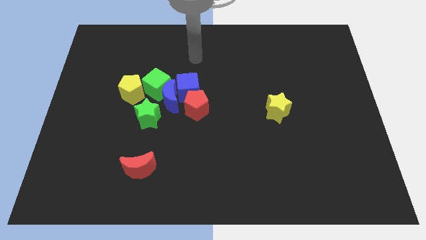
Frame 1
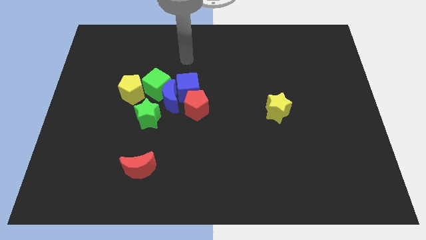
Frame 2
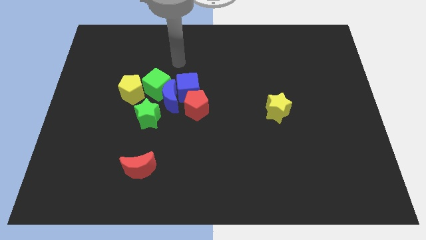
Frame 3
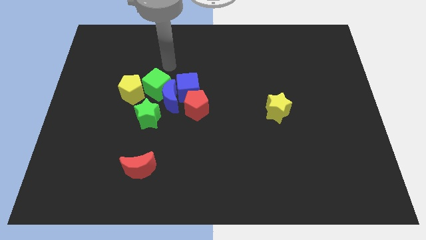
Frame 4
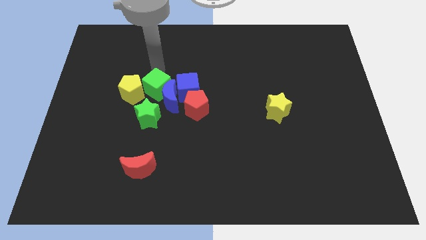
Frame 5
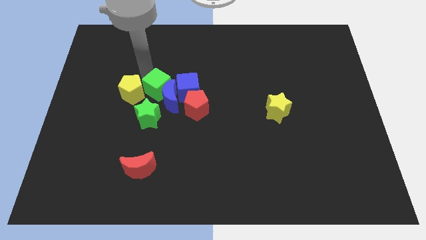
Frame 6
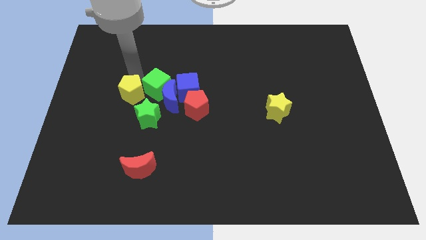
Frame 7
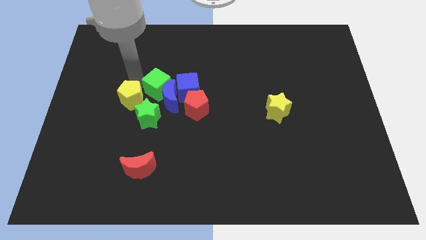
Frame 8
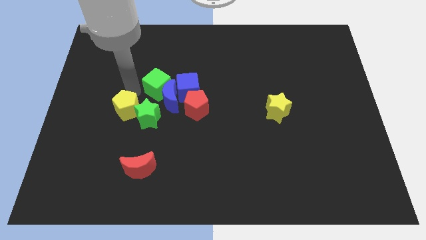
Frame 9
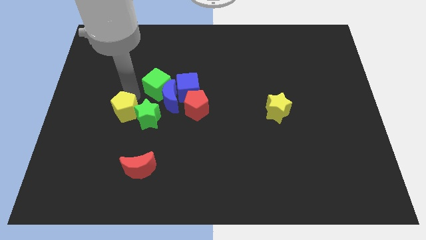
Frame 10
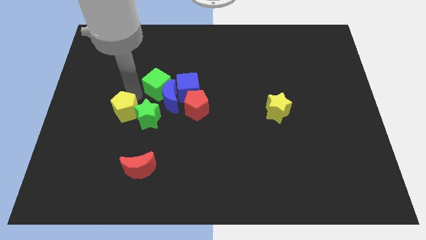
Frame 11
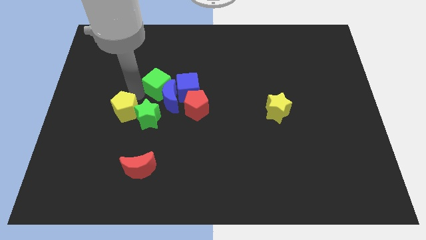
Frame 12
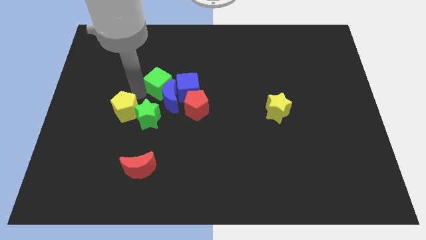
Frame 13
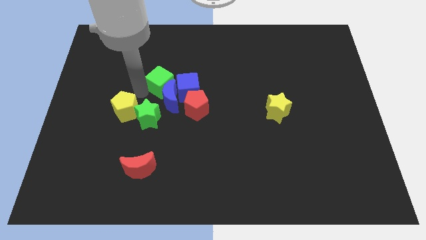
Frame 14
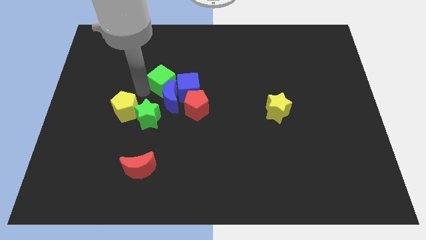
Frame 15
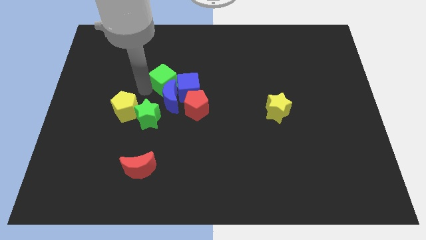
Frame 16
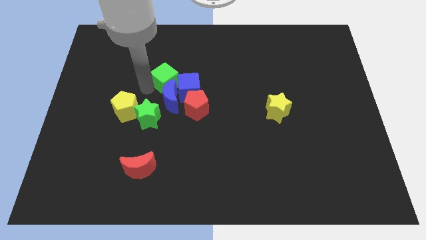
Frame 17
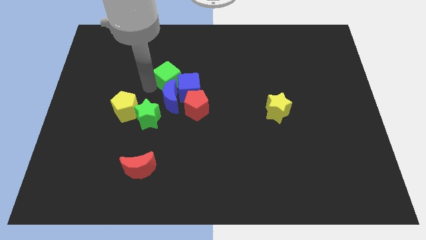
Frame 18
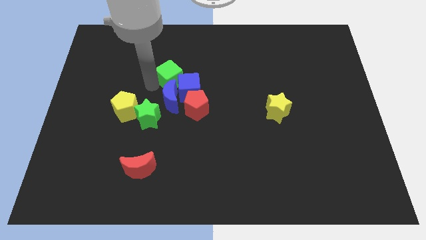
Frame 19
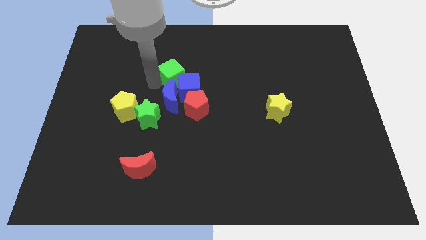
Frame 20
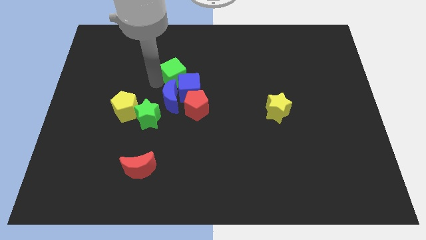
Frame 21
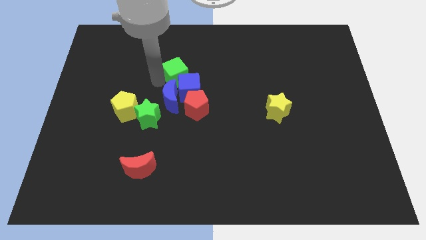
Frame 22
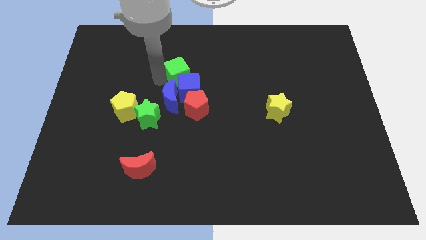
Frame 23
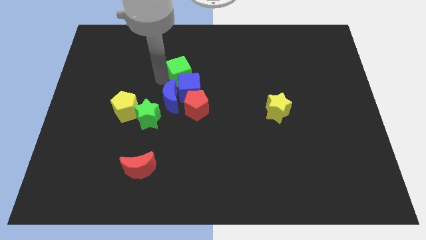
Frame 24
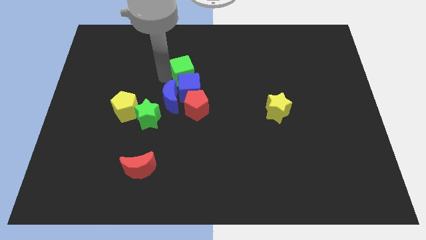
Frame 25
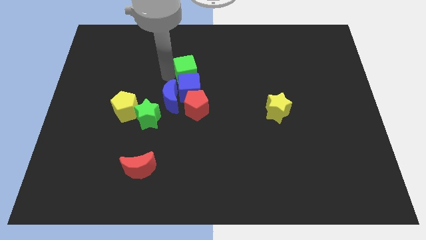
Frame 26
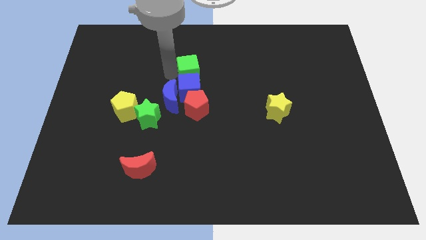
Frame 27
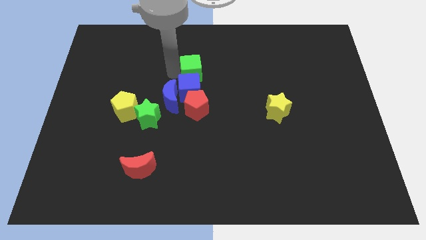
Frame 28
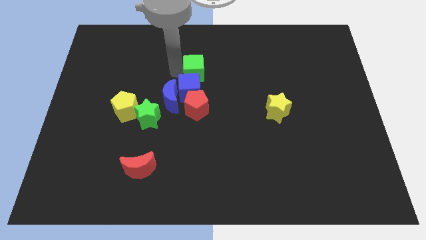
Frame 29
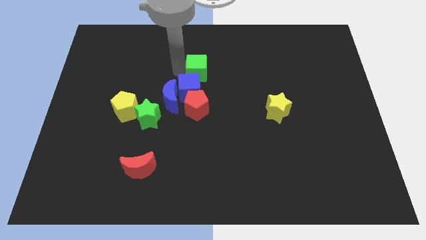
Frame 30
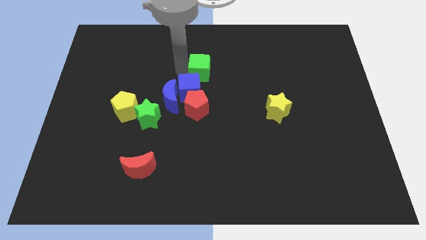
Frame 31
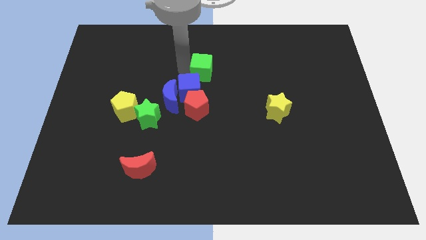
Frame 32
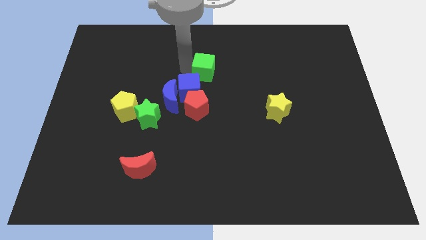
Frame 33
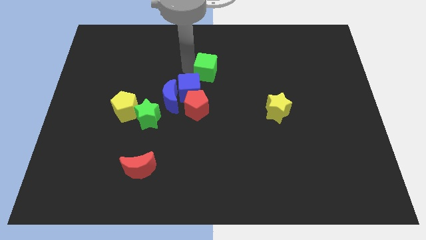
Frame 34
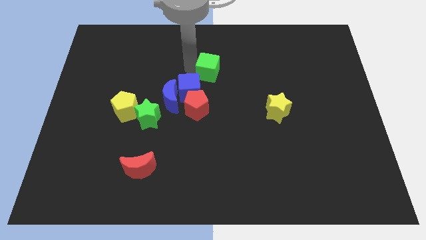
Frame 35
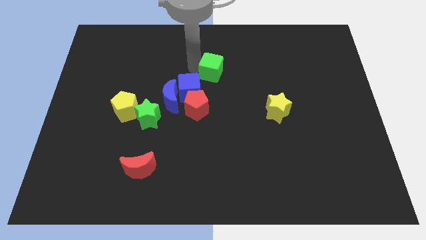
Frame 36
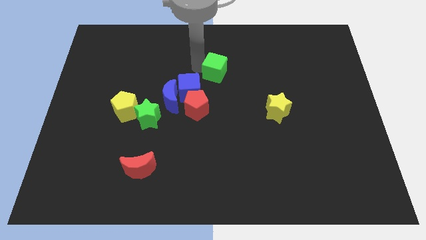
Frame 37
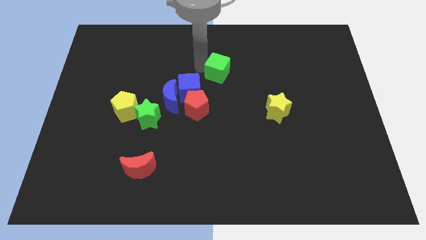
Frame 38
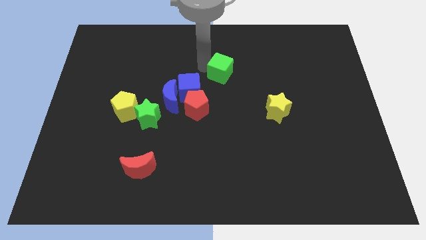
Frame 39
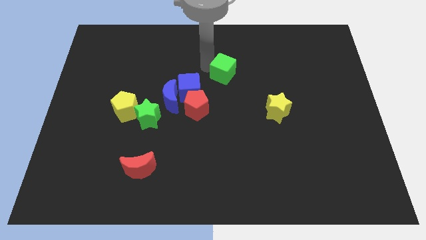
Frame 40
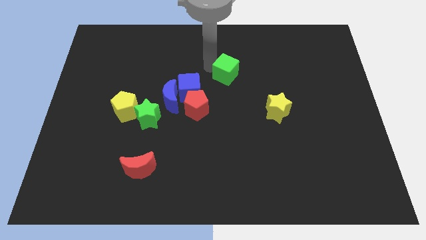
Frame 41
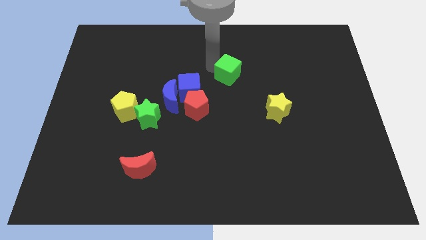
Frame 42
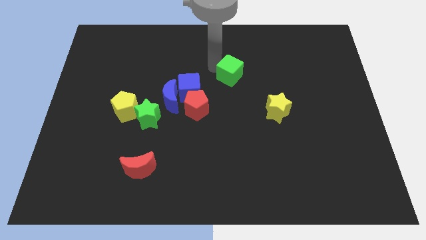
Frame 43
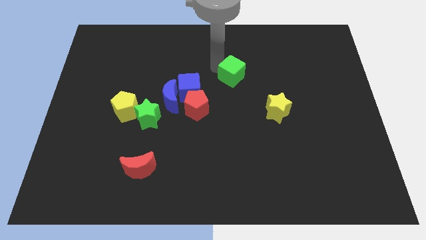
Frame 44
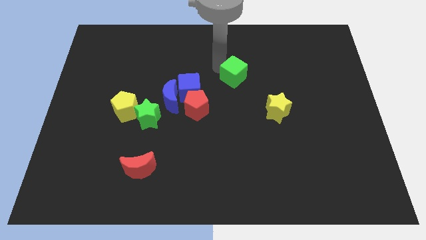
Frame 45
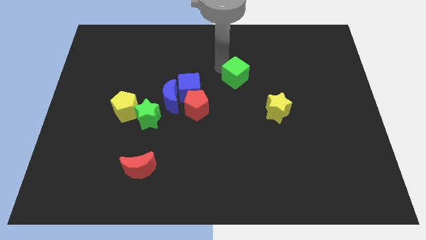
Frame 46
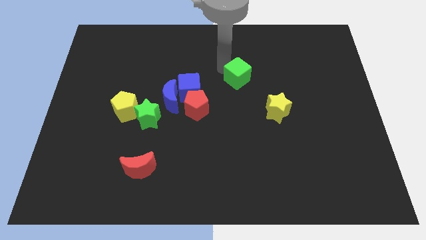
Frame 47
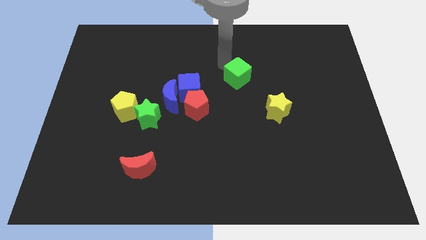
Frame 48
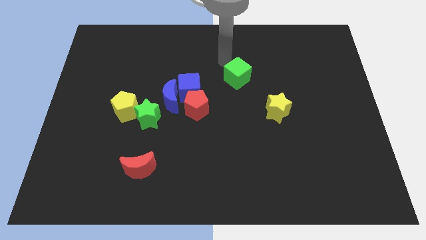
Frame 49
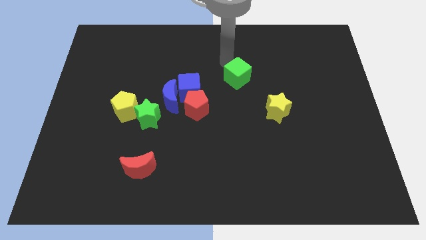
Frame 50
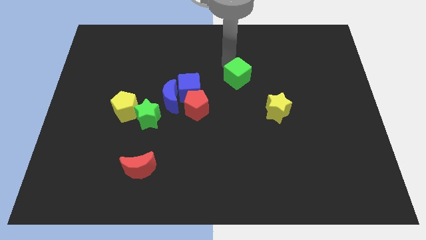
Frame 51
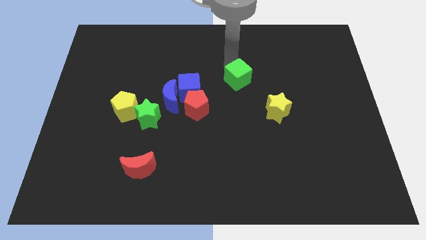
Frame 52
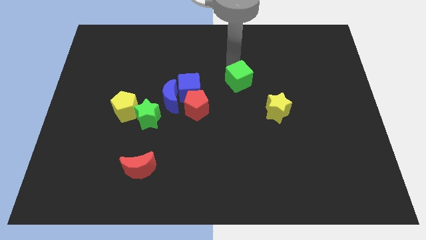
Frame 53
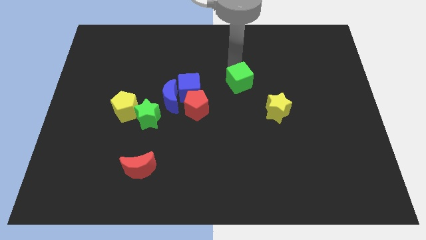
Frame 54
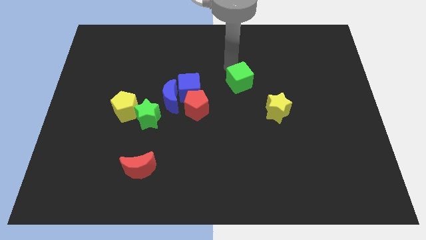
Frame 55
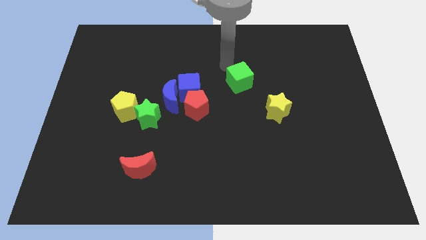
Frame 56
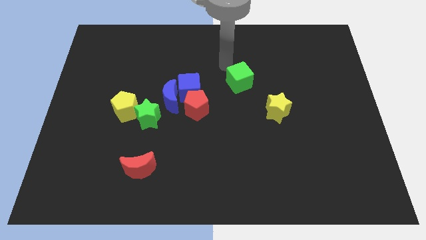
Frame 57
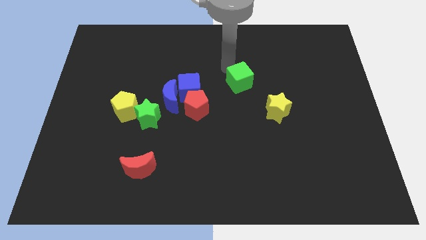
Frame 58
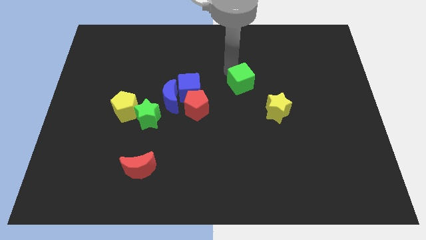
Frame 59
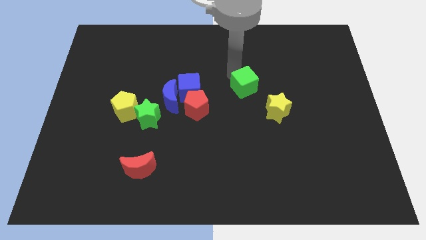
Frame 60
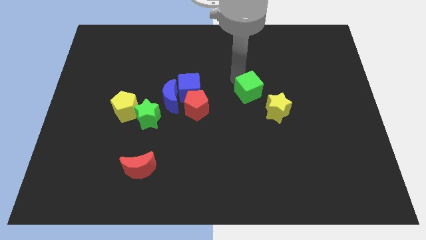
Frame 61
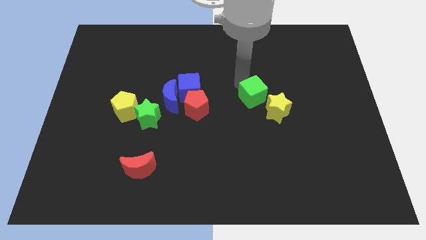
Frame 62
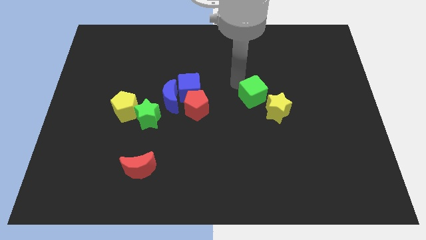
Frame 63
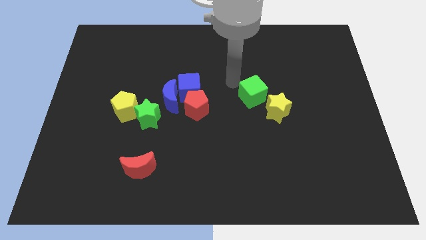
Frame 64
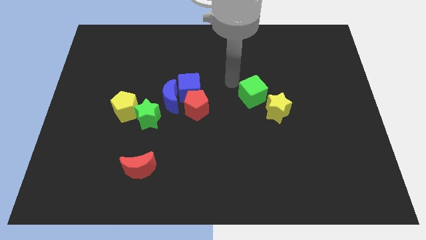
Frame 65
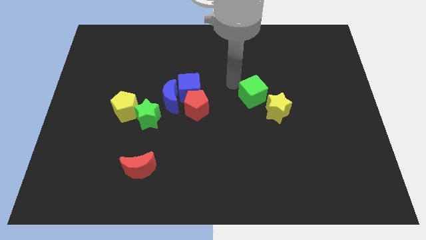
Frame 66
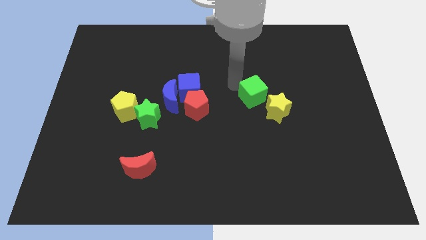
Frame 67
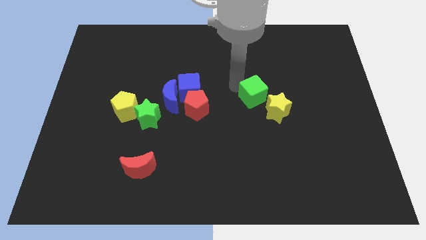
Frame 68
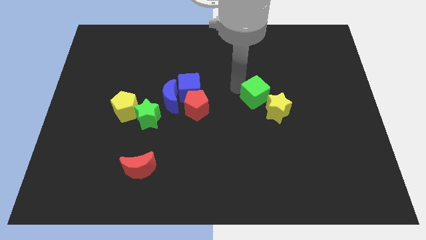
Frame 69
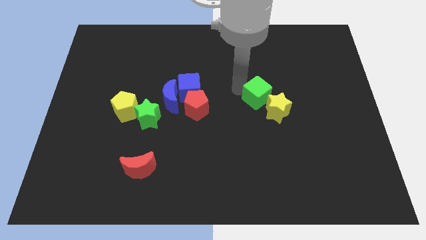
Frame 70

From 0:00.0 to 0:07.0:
slide the green cube towards the yellow star
